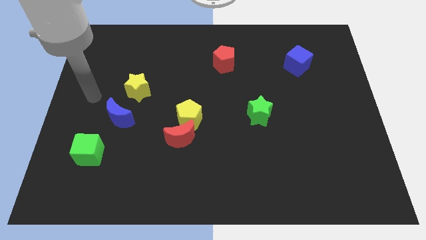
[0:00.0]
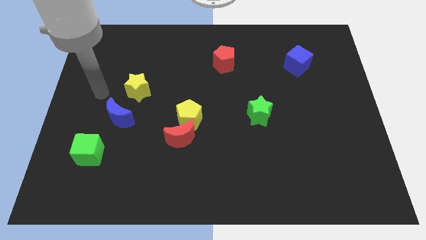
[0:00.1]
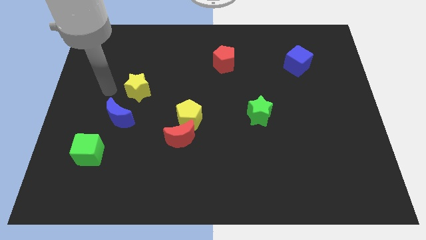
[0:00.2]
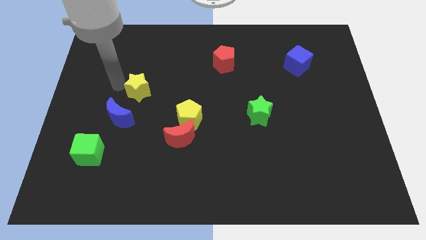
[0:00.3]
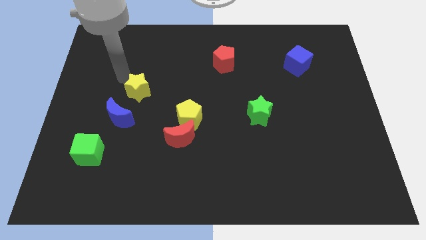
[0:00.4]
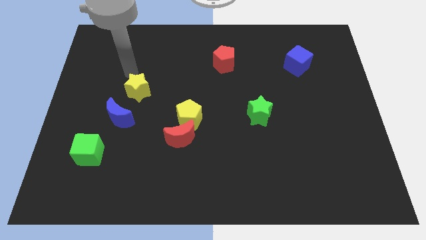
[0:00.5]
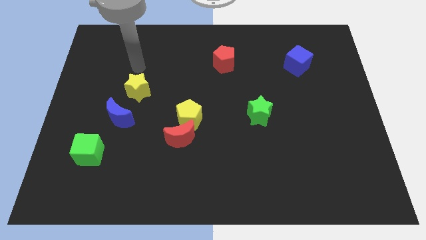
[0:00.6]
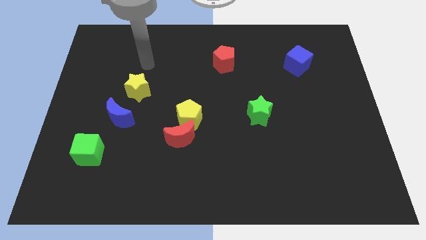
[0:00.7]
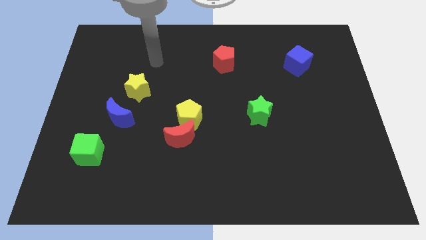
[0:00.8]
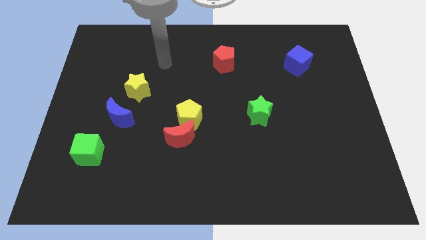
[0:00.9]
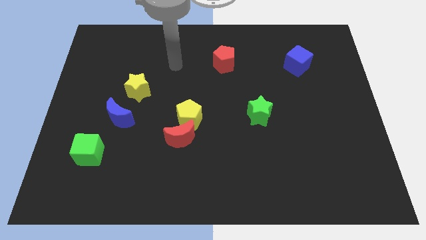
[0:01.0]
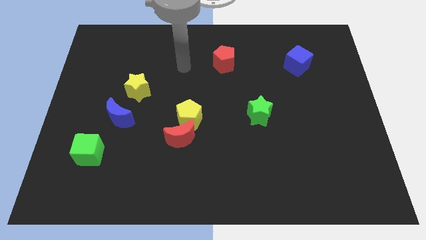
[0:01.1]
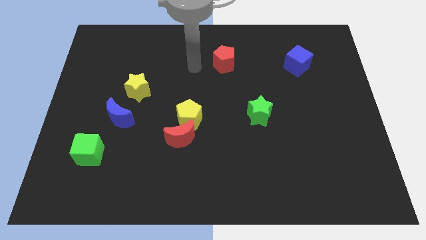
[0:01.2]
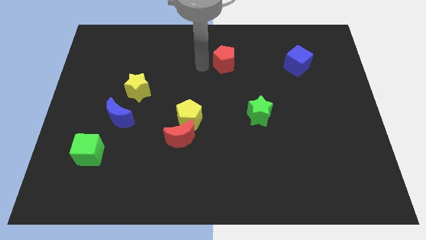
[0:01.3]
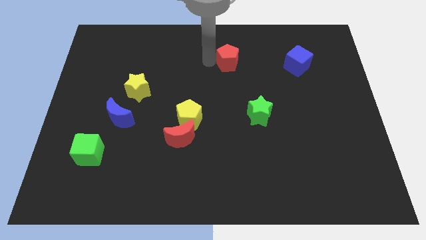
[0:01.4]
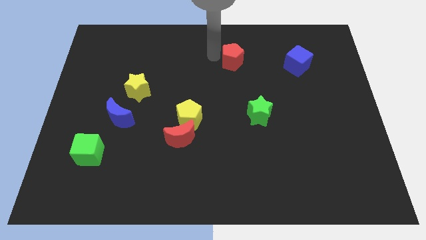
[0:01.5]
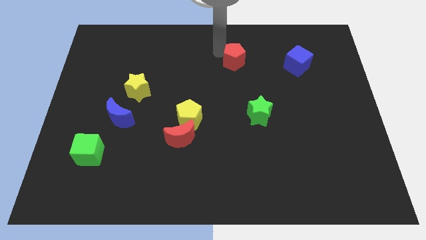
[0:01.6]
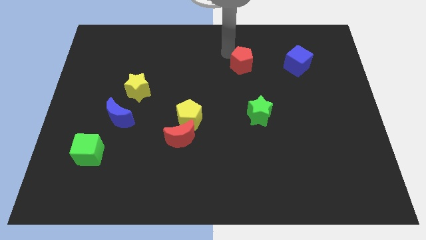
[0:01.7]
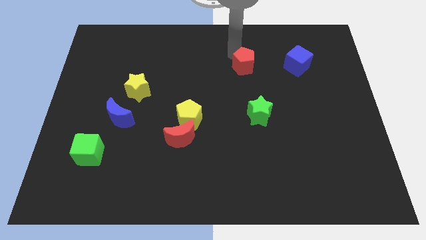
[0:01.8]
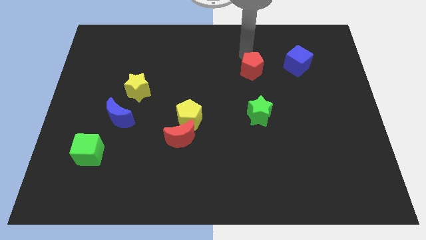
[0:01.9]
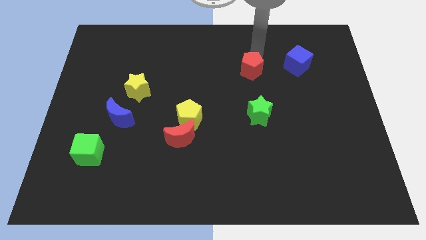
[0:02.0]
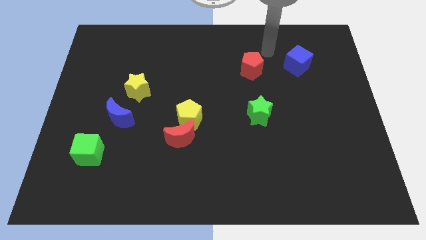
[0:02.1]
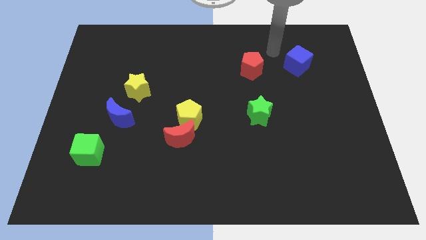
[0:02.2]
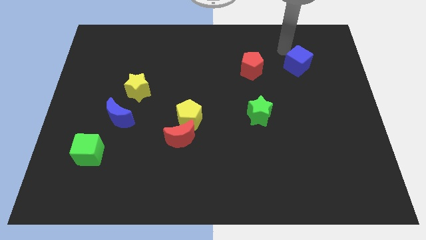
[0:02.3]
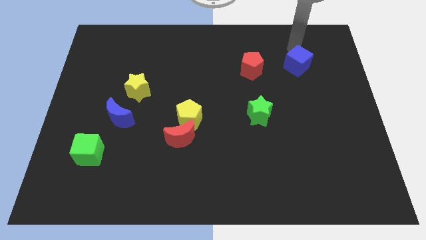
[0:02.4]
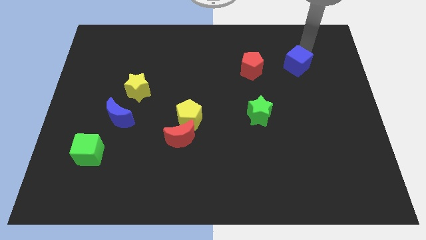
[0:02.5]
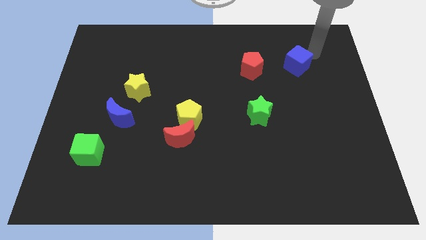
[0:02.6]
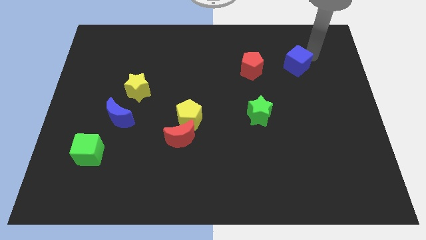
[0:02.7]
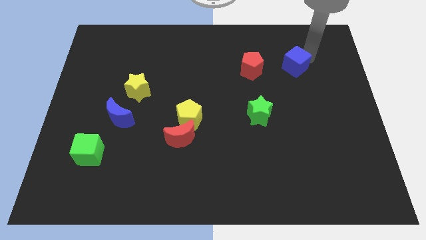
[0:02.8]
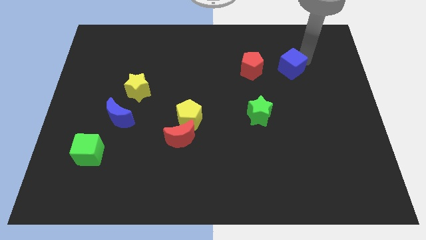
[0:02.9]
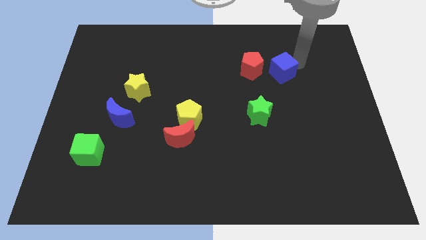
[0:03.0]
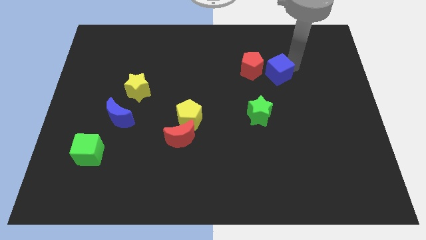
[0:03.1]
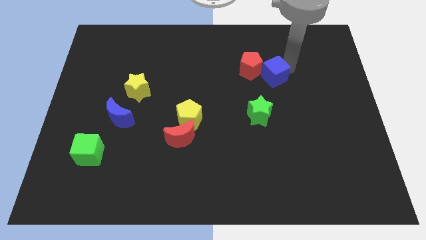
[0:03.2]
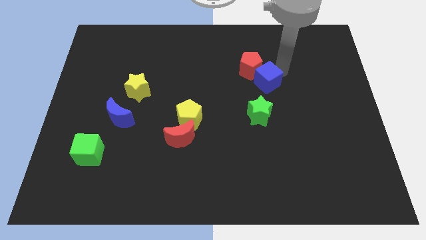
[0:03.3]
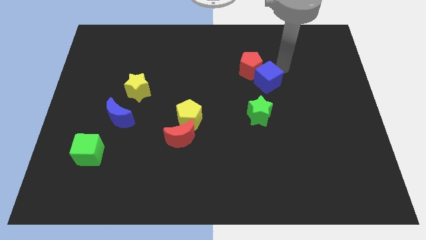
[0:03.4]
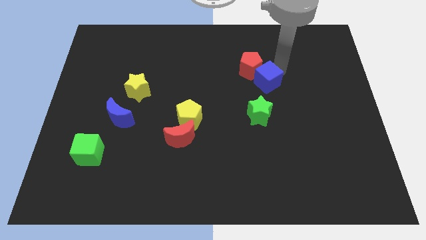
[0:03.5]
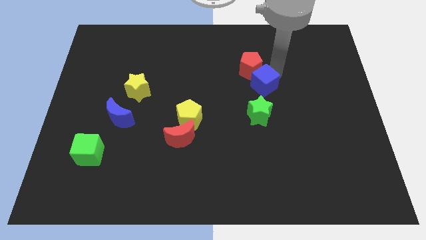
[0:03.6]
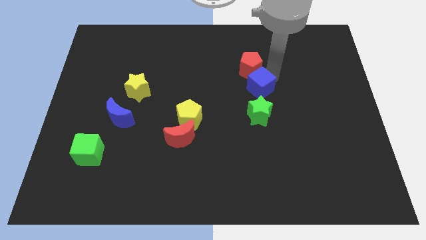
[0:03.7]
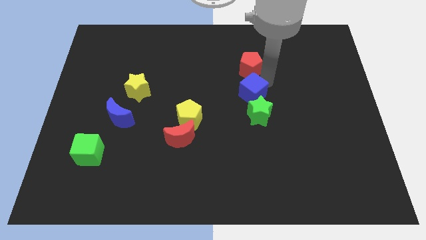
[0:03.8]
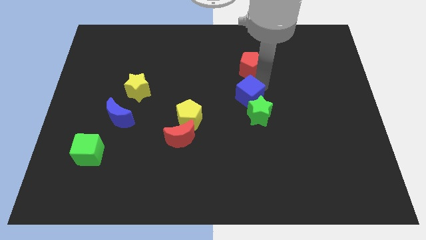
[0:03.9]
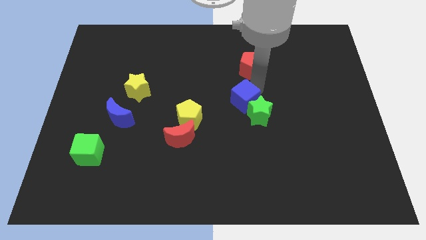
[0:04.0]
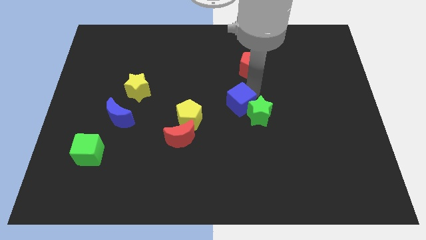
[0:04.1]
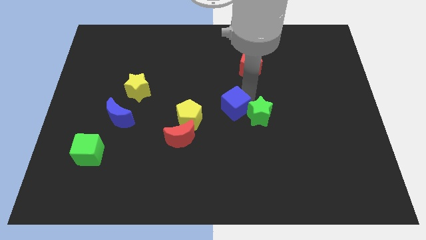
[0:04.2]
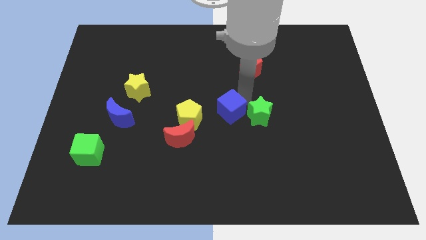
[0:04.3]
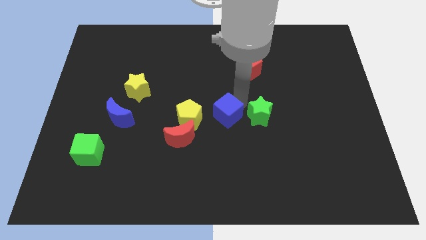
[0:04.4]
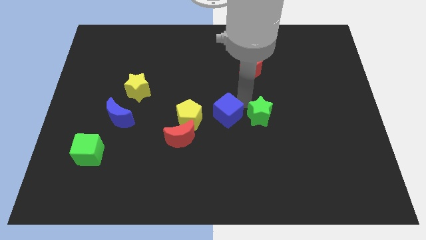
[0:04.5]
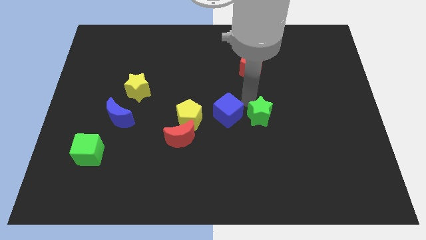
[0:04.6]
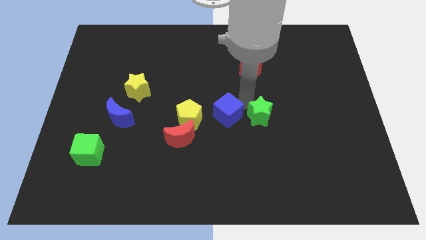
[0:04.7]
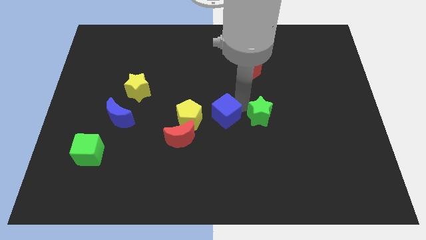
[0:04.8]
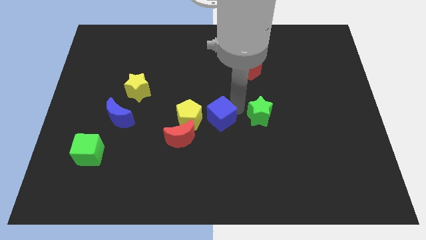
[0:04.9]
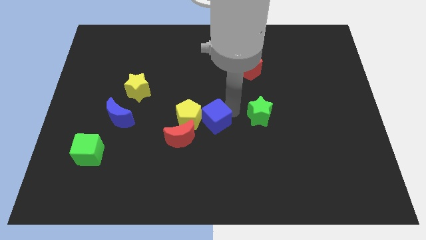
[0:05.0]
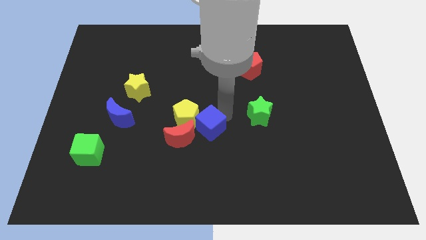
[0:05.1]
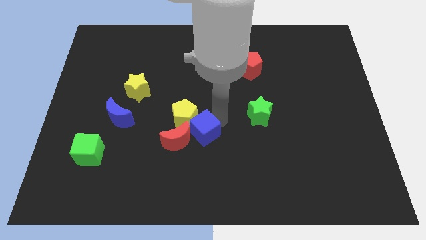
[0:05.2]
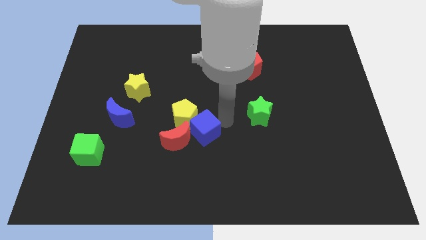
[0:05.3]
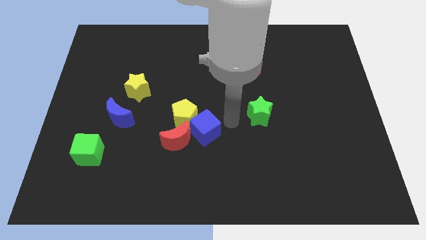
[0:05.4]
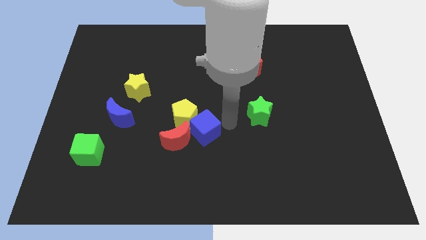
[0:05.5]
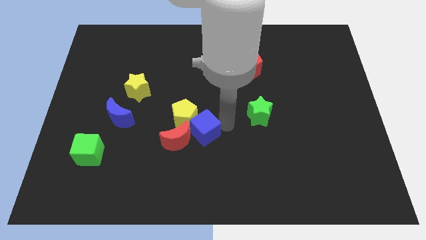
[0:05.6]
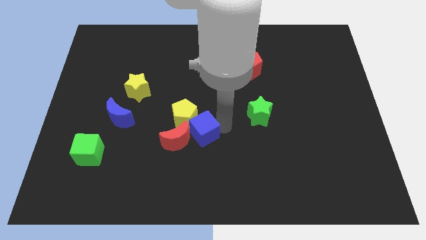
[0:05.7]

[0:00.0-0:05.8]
move the blue cube towards the red moon

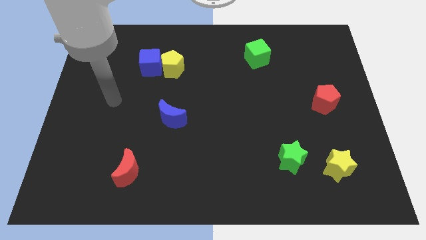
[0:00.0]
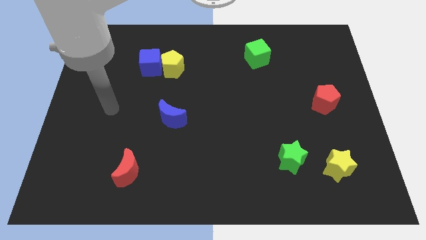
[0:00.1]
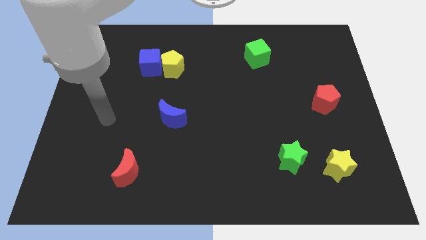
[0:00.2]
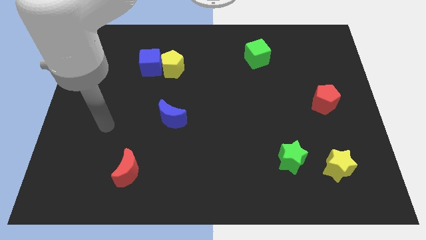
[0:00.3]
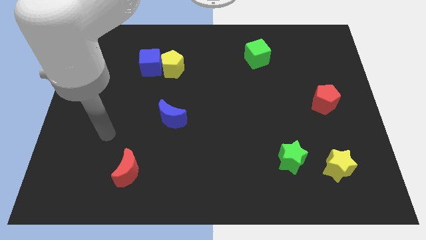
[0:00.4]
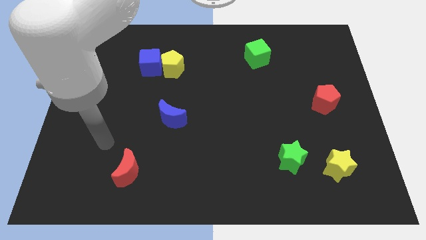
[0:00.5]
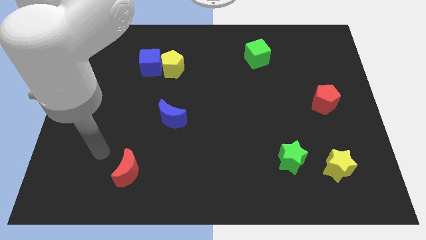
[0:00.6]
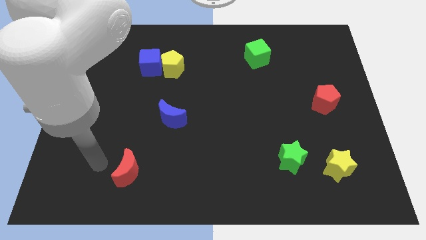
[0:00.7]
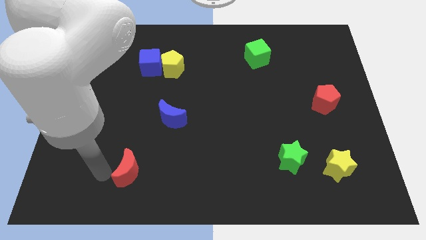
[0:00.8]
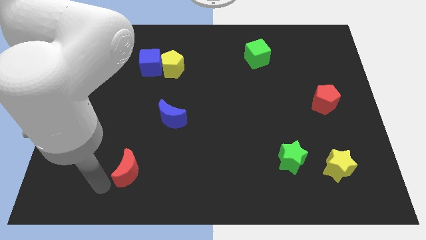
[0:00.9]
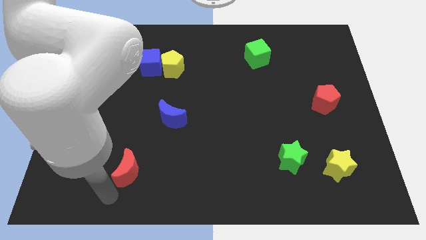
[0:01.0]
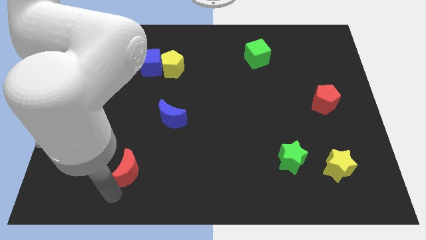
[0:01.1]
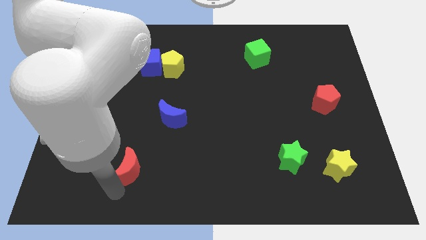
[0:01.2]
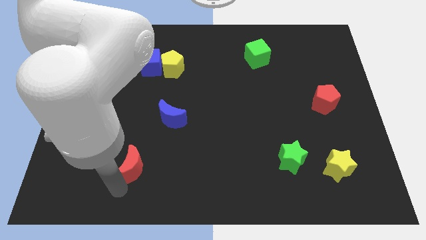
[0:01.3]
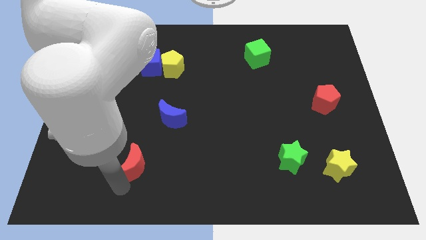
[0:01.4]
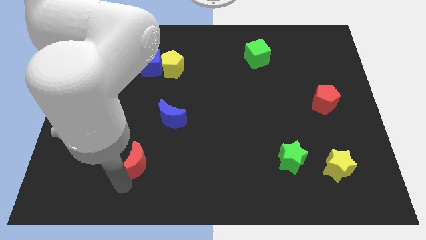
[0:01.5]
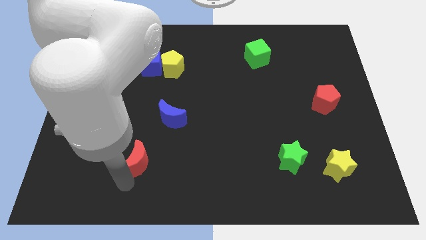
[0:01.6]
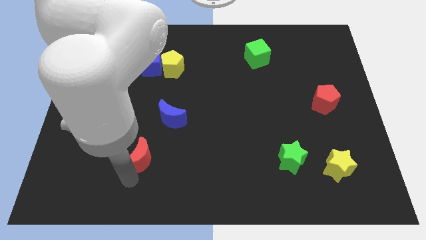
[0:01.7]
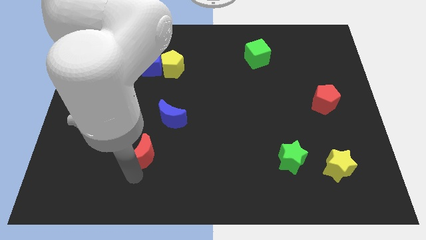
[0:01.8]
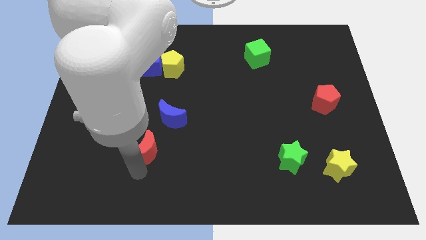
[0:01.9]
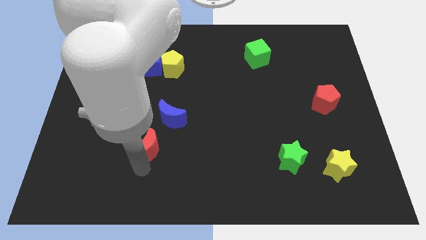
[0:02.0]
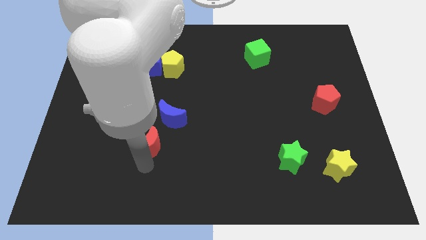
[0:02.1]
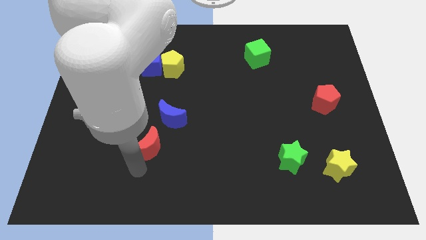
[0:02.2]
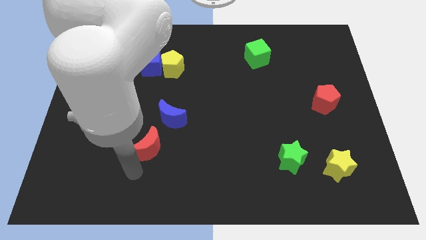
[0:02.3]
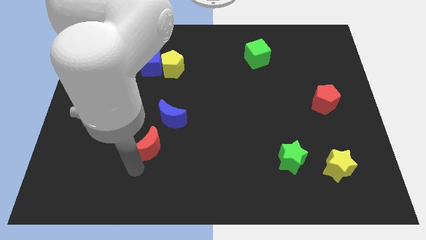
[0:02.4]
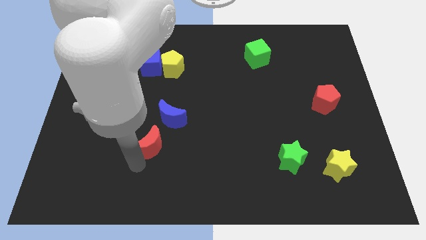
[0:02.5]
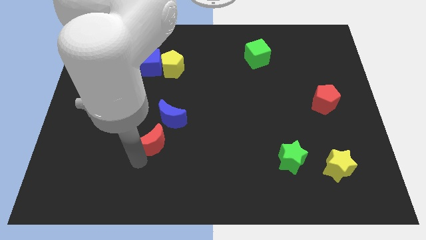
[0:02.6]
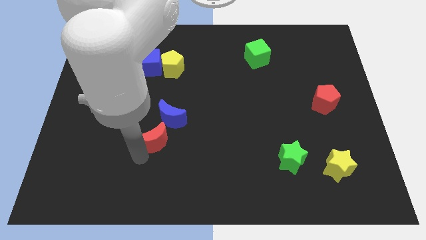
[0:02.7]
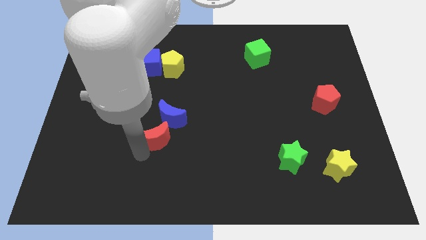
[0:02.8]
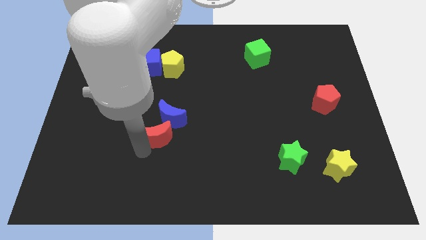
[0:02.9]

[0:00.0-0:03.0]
put the red moon next to the blue moon
